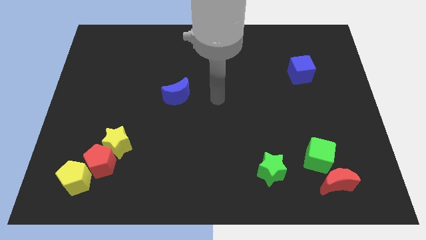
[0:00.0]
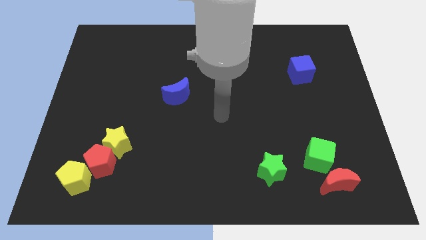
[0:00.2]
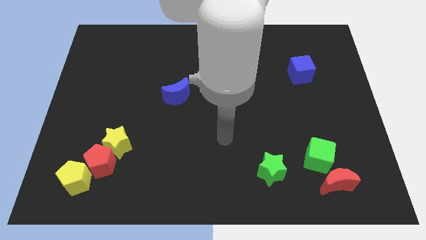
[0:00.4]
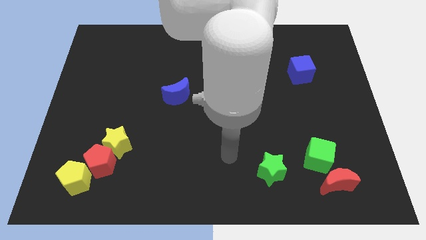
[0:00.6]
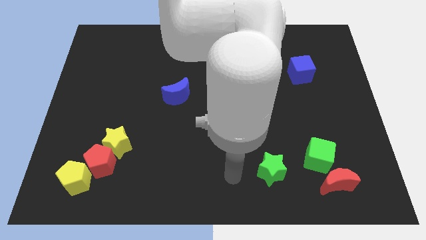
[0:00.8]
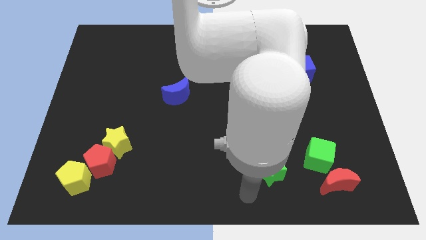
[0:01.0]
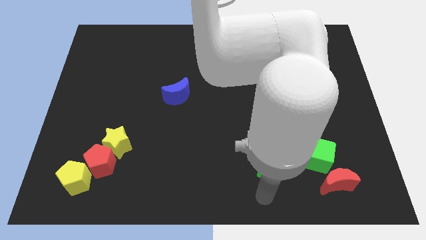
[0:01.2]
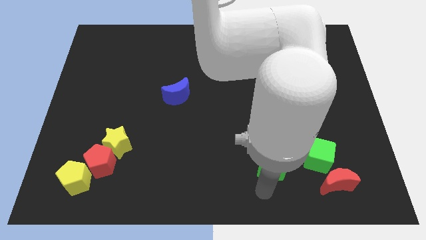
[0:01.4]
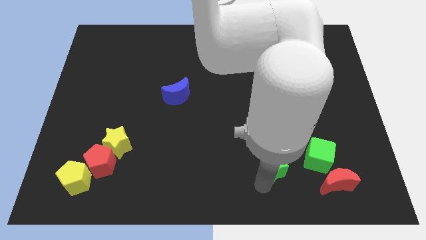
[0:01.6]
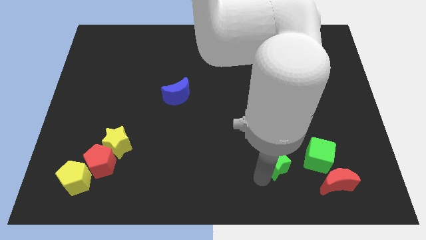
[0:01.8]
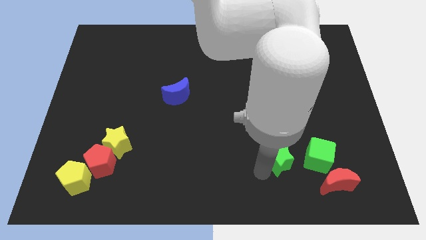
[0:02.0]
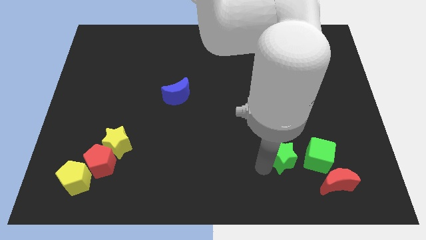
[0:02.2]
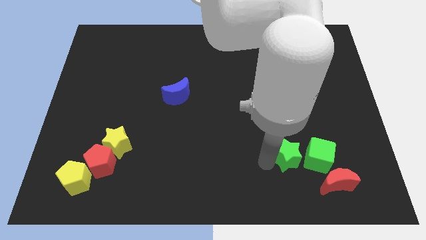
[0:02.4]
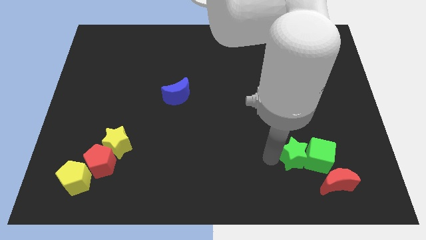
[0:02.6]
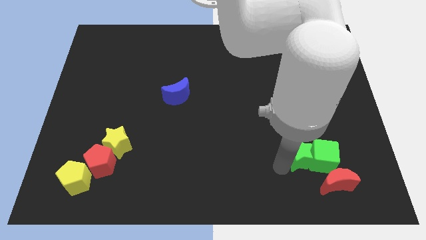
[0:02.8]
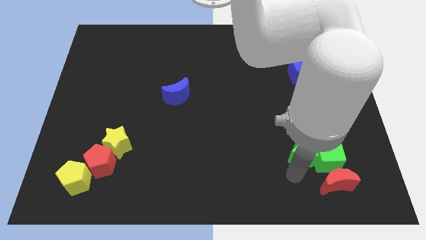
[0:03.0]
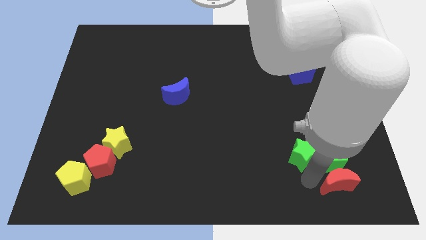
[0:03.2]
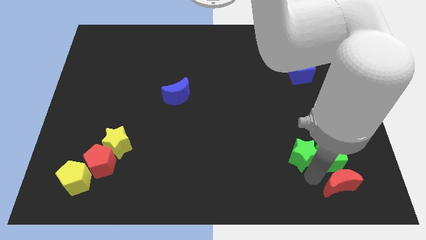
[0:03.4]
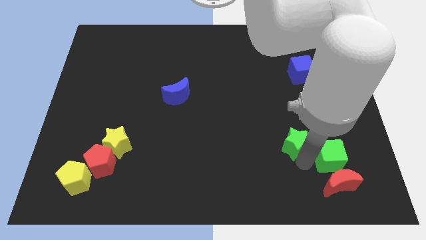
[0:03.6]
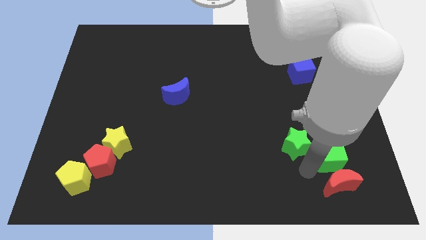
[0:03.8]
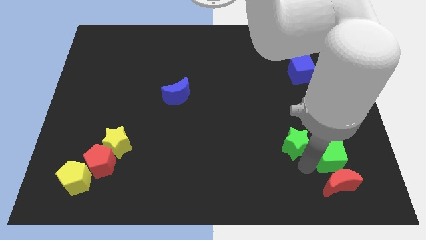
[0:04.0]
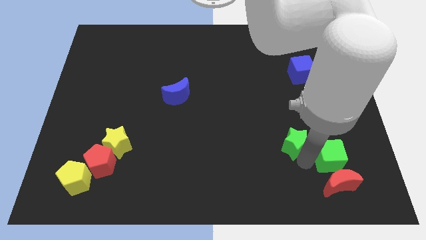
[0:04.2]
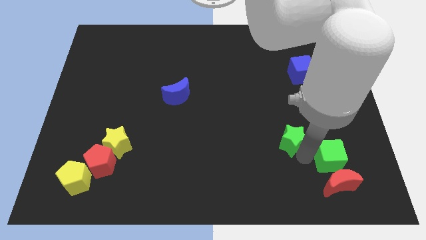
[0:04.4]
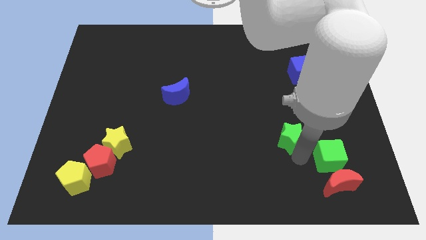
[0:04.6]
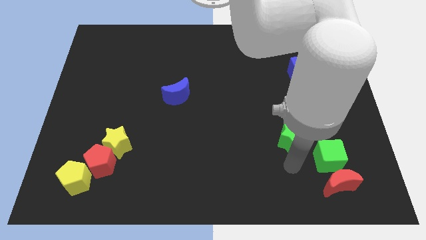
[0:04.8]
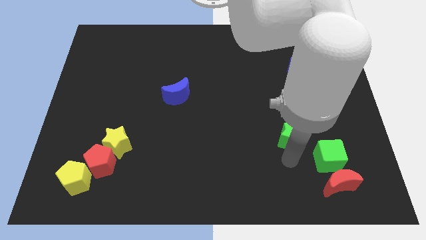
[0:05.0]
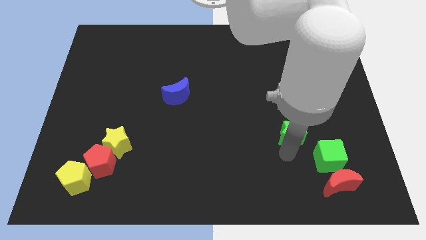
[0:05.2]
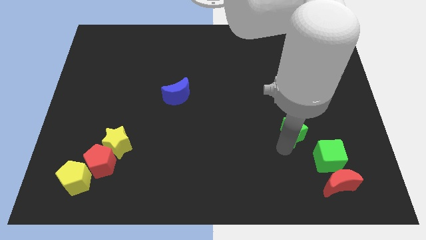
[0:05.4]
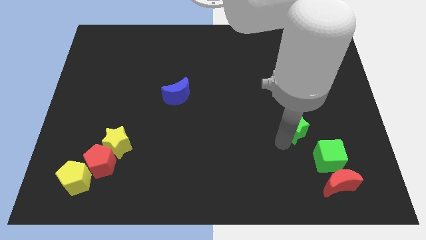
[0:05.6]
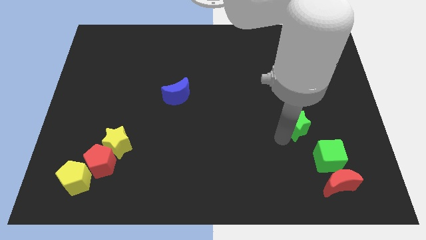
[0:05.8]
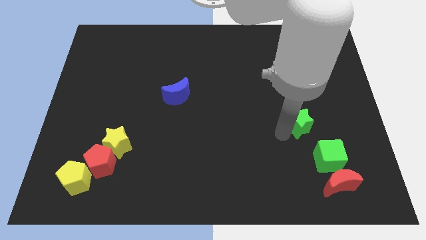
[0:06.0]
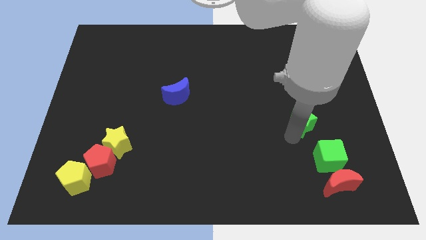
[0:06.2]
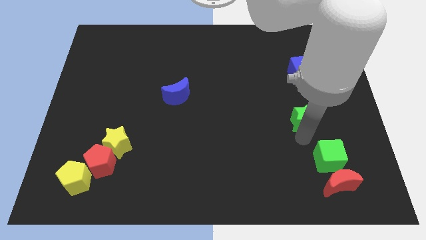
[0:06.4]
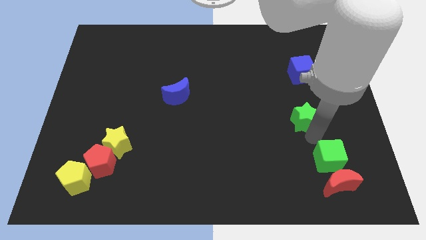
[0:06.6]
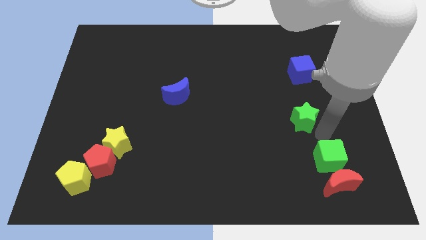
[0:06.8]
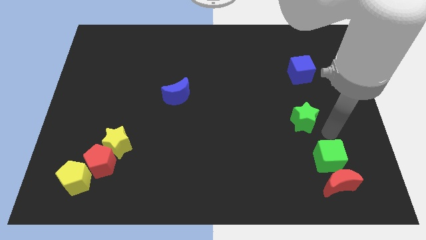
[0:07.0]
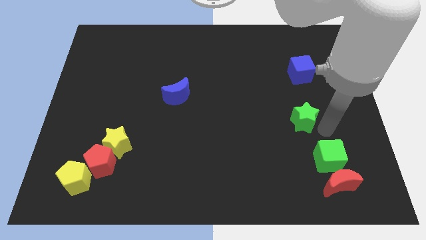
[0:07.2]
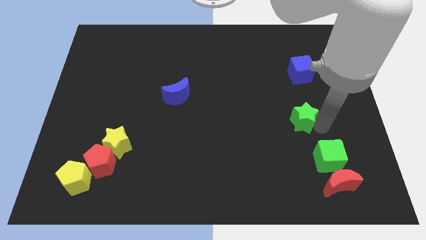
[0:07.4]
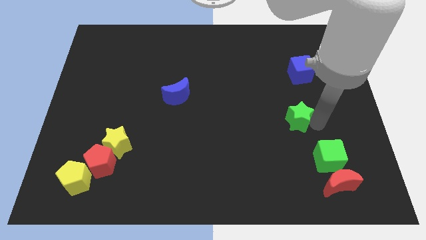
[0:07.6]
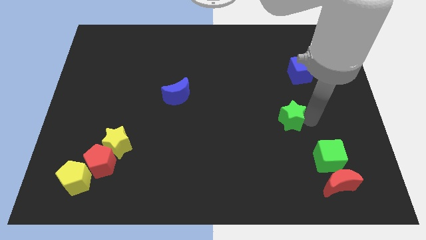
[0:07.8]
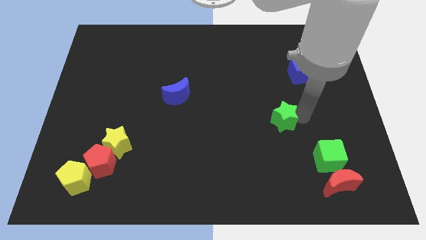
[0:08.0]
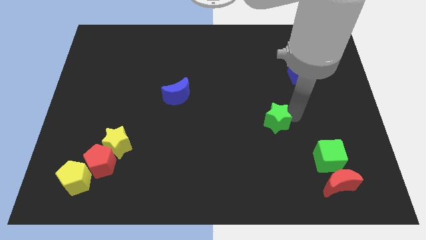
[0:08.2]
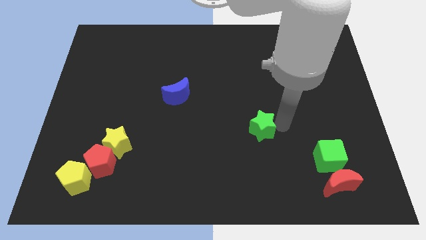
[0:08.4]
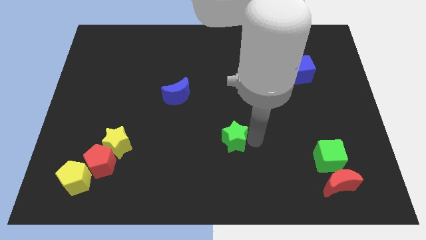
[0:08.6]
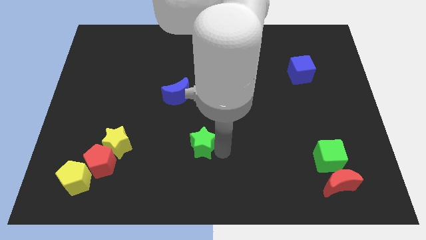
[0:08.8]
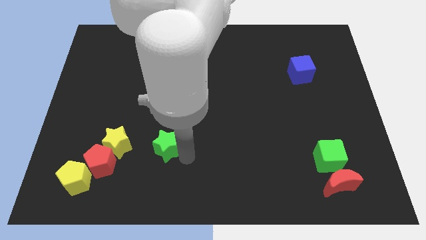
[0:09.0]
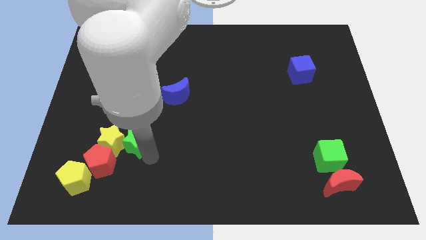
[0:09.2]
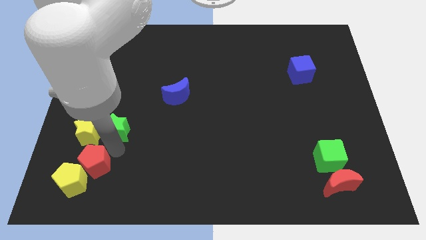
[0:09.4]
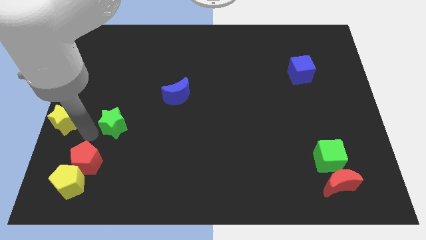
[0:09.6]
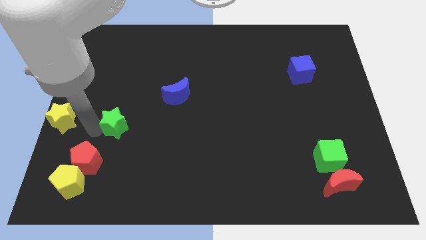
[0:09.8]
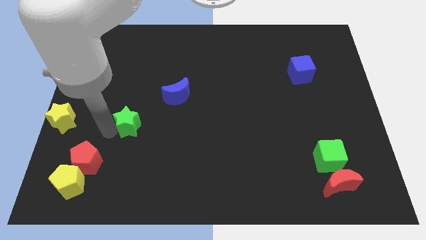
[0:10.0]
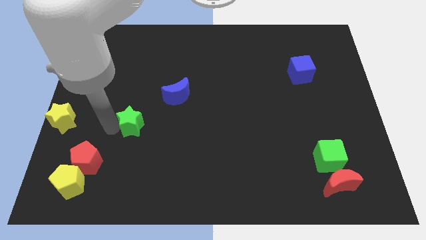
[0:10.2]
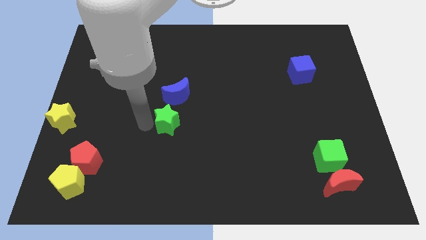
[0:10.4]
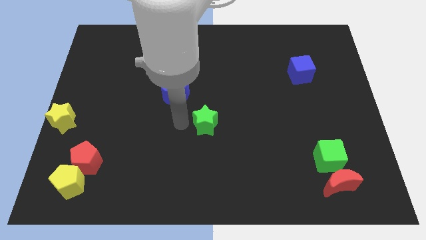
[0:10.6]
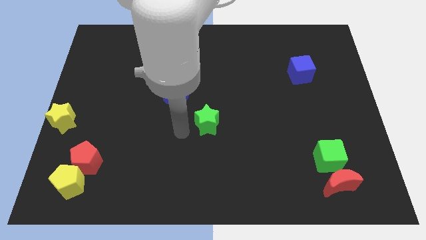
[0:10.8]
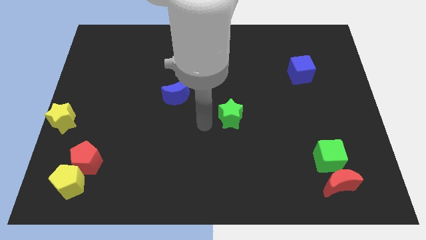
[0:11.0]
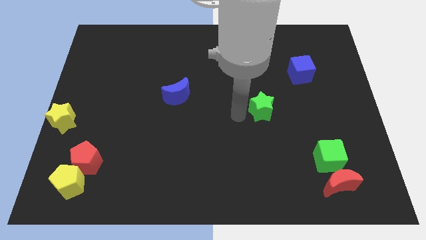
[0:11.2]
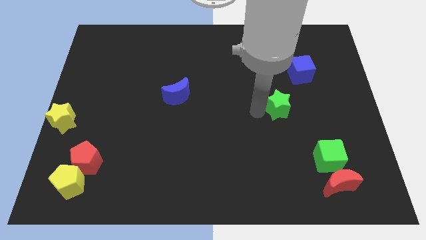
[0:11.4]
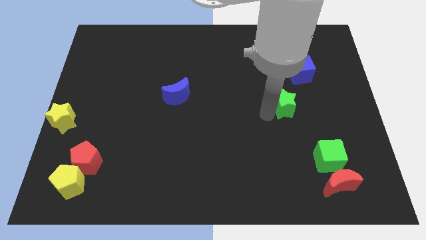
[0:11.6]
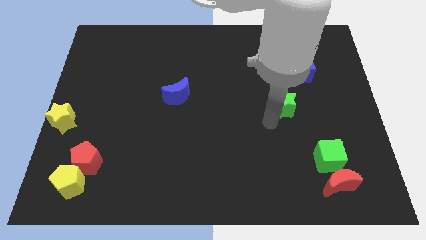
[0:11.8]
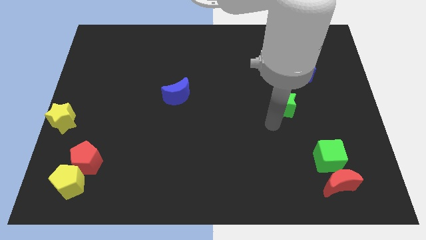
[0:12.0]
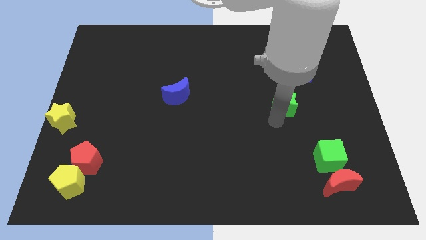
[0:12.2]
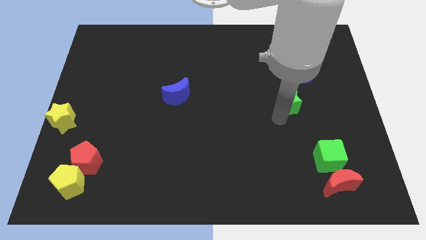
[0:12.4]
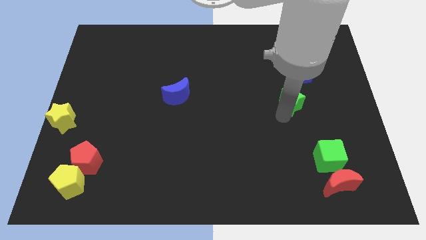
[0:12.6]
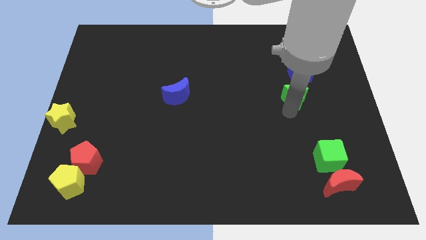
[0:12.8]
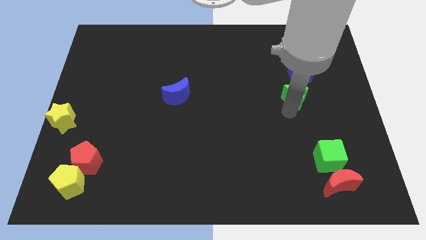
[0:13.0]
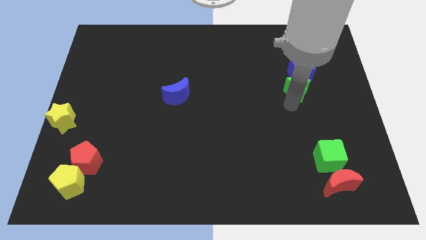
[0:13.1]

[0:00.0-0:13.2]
move the green star next to the blue cube
